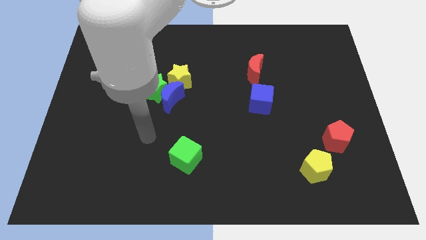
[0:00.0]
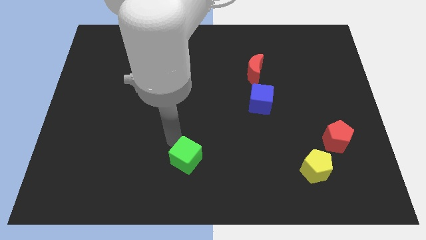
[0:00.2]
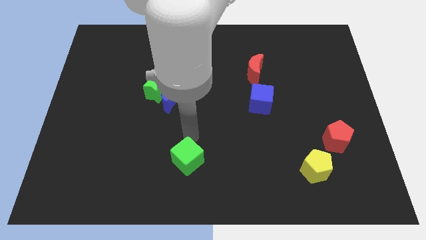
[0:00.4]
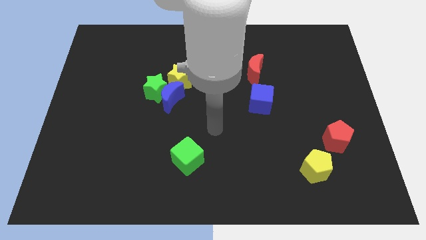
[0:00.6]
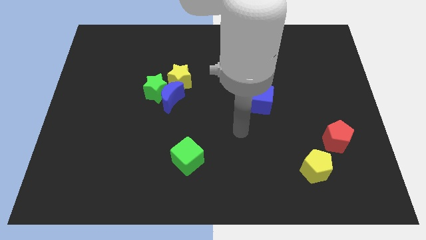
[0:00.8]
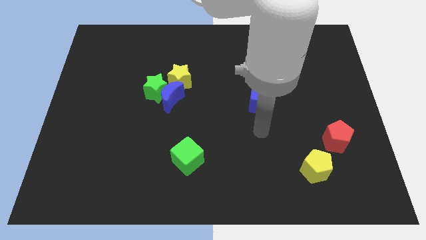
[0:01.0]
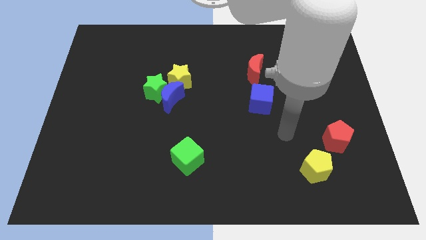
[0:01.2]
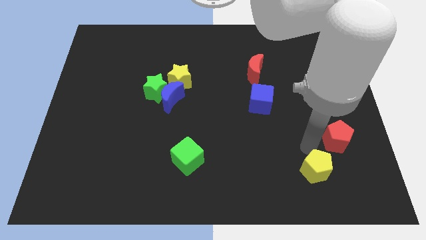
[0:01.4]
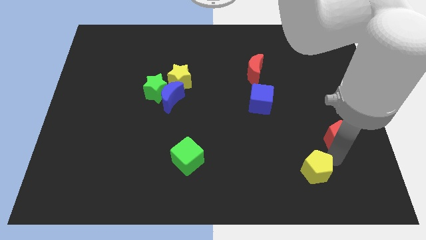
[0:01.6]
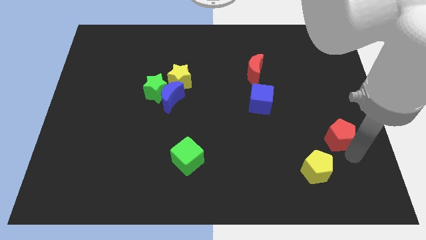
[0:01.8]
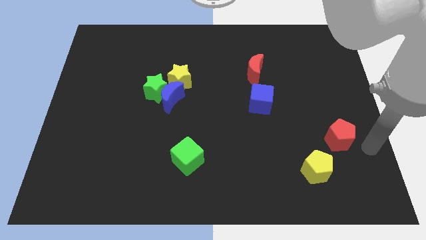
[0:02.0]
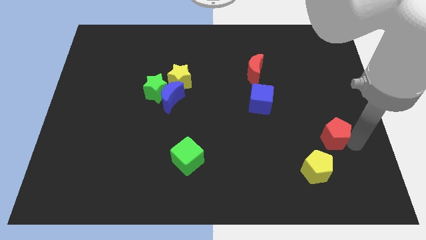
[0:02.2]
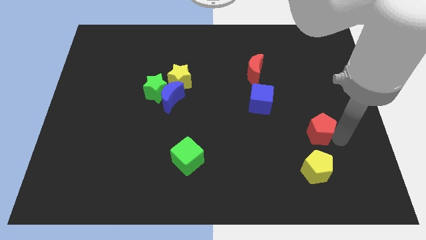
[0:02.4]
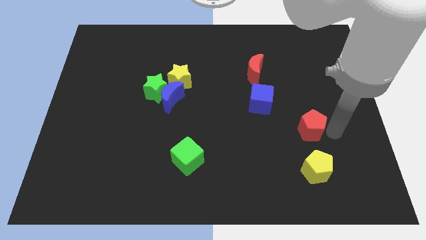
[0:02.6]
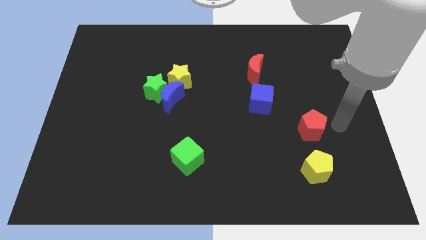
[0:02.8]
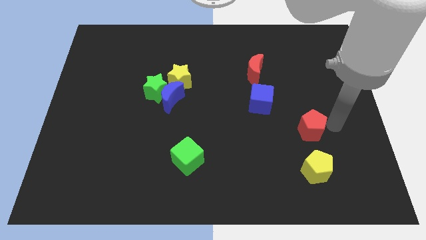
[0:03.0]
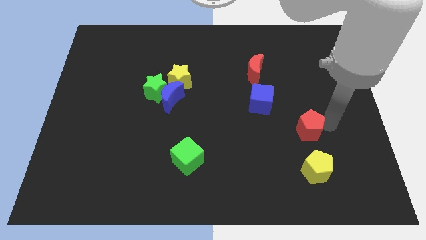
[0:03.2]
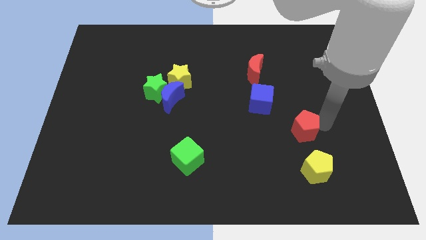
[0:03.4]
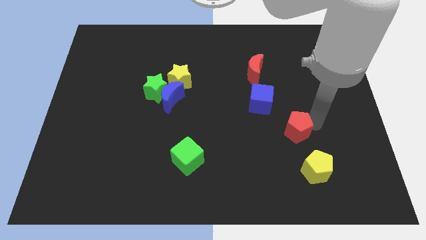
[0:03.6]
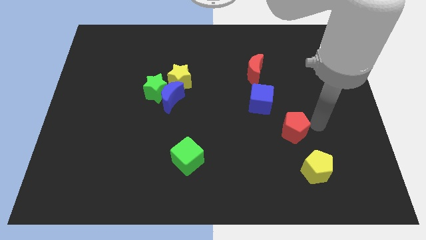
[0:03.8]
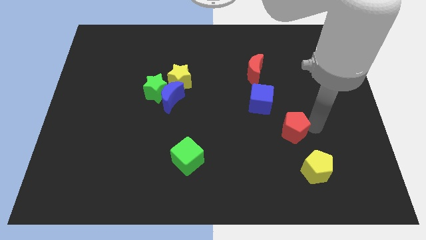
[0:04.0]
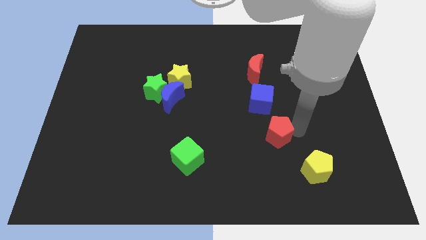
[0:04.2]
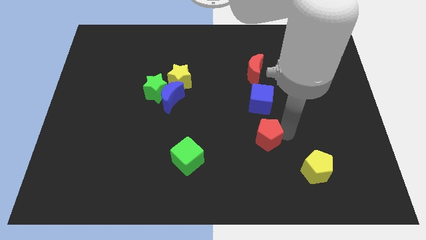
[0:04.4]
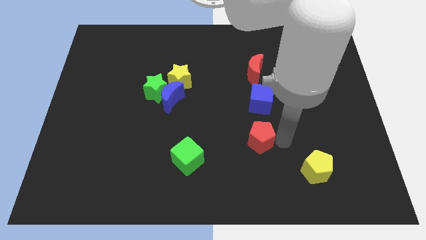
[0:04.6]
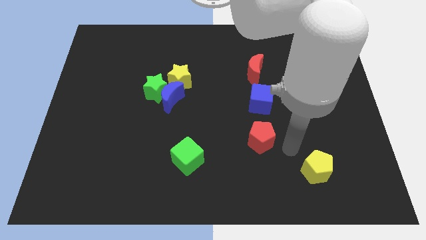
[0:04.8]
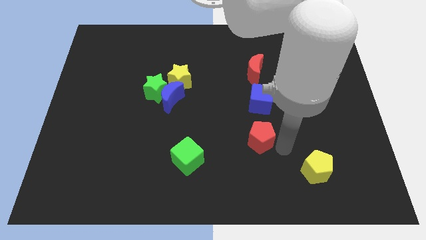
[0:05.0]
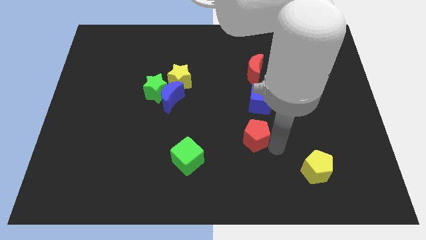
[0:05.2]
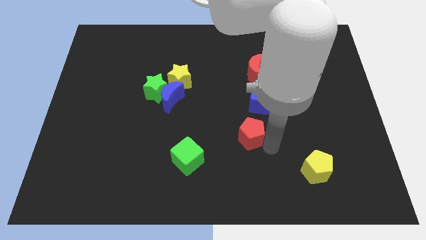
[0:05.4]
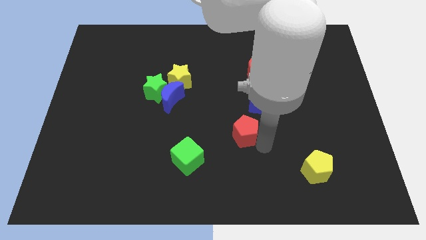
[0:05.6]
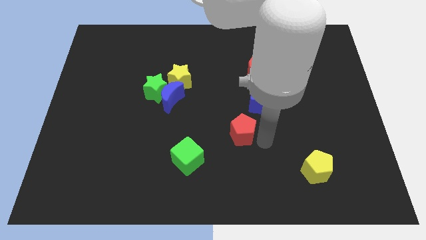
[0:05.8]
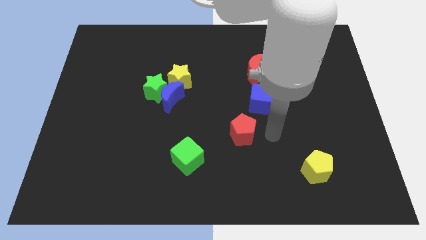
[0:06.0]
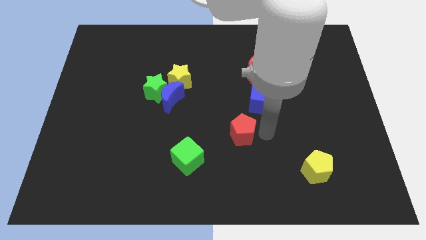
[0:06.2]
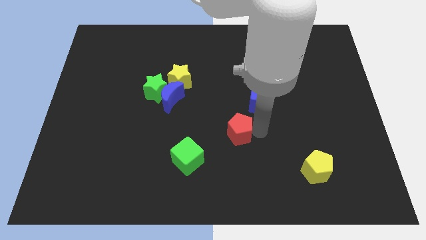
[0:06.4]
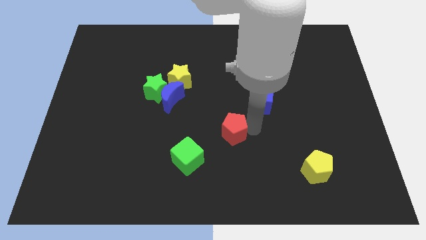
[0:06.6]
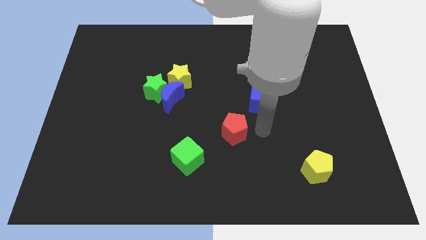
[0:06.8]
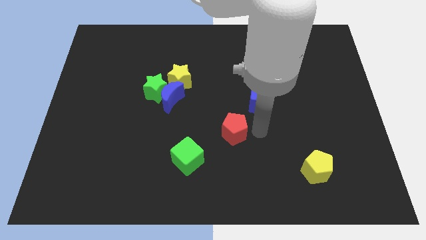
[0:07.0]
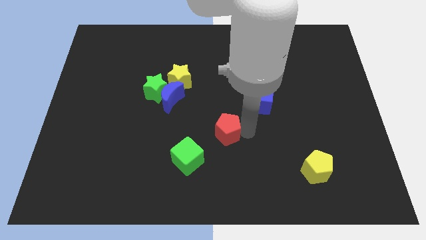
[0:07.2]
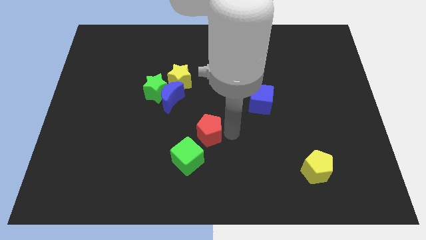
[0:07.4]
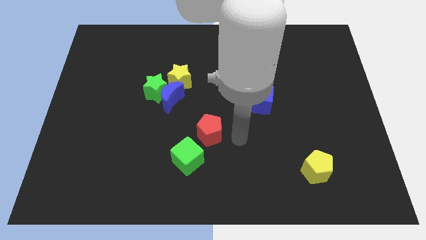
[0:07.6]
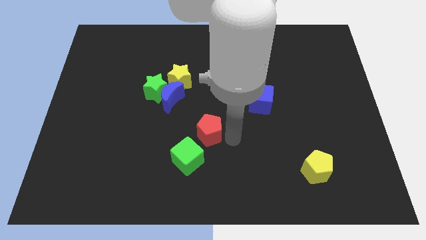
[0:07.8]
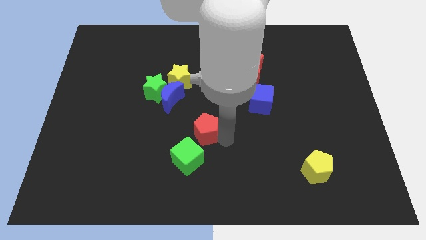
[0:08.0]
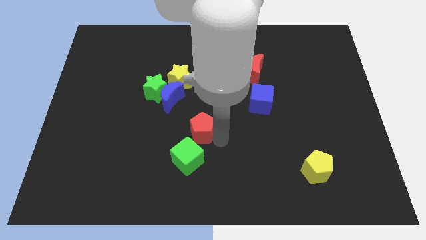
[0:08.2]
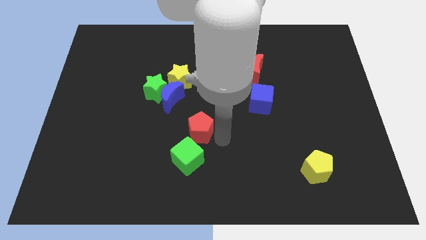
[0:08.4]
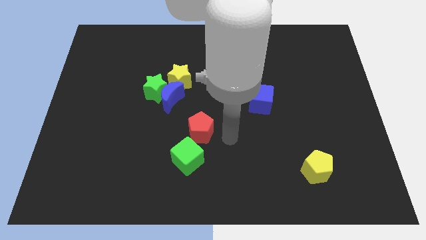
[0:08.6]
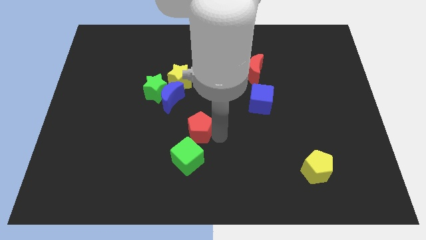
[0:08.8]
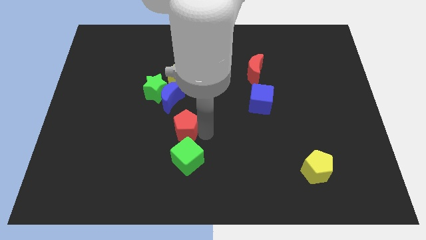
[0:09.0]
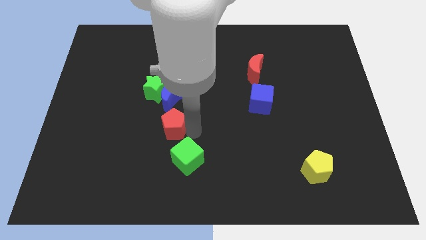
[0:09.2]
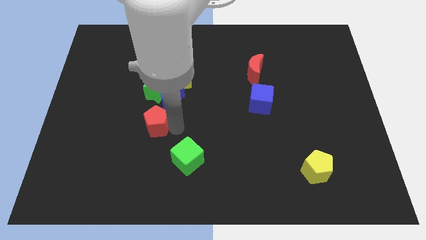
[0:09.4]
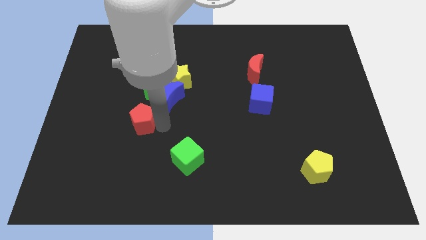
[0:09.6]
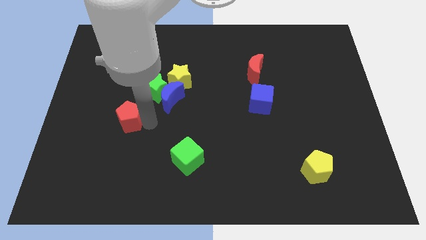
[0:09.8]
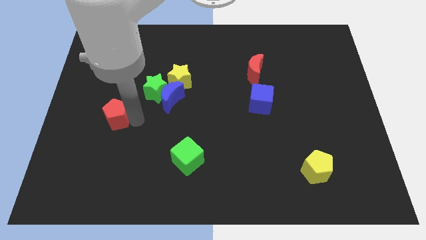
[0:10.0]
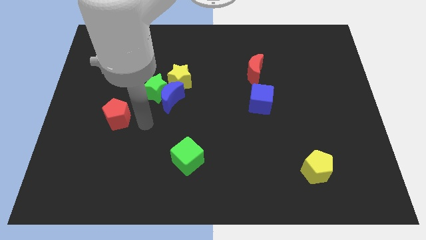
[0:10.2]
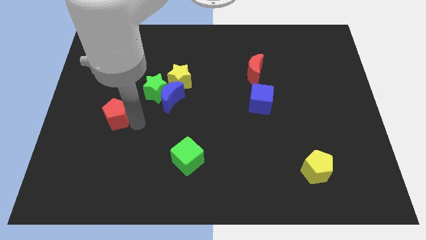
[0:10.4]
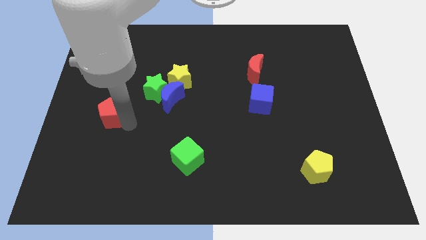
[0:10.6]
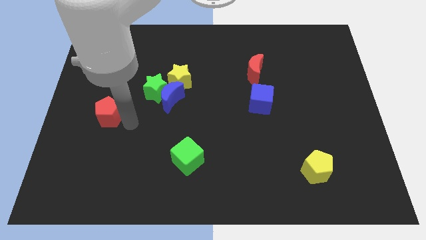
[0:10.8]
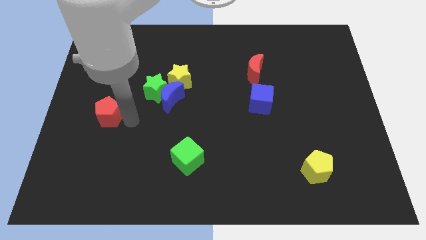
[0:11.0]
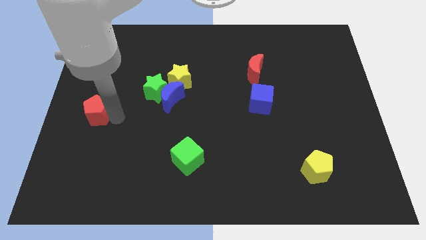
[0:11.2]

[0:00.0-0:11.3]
push the red pentagon to the center left

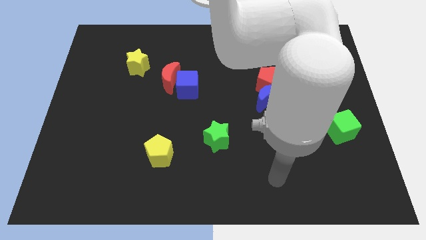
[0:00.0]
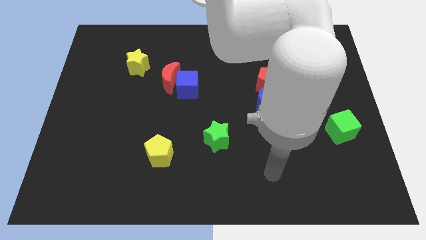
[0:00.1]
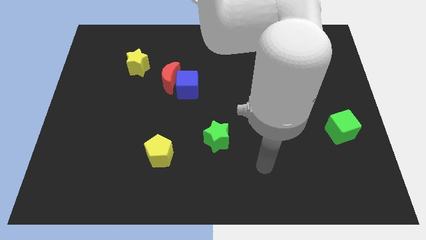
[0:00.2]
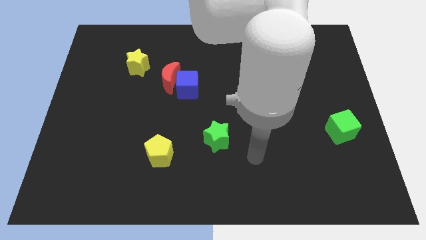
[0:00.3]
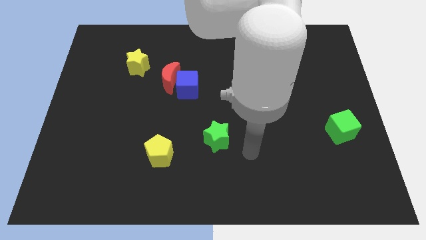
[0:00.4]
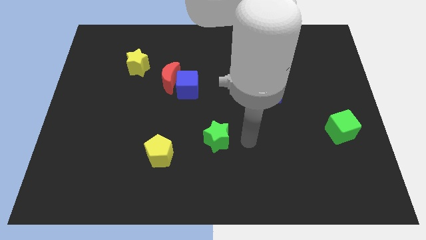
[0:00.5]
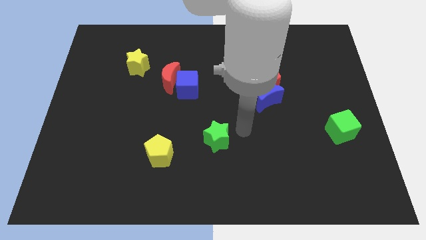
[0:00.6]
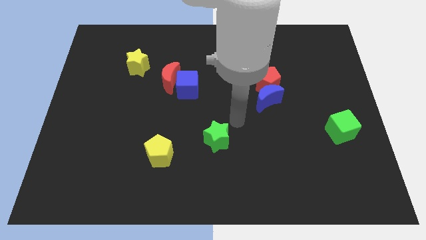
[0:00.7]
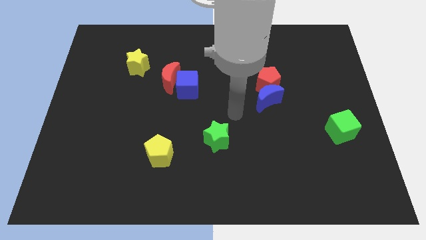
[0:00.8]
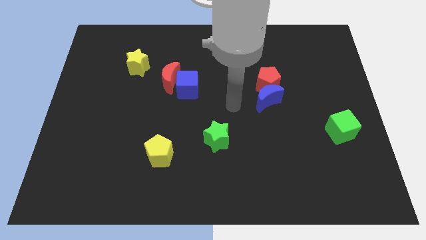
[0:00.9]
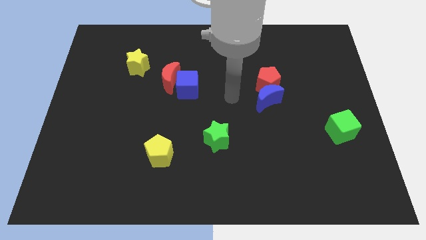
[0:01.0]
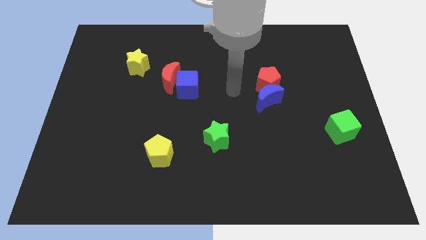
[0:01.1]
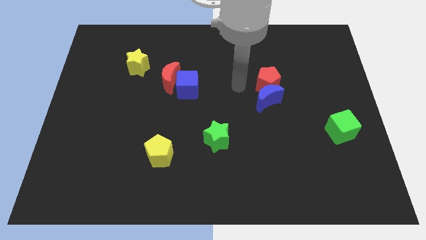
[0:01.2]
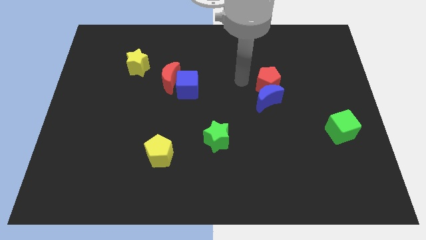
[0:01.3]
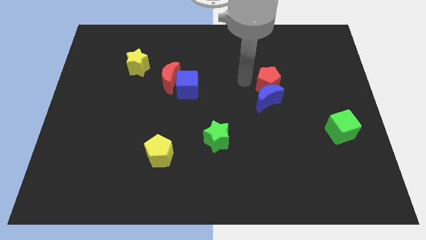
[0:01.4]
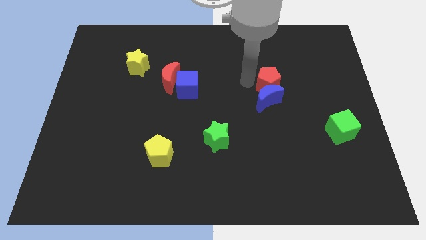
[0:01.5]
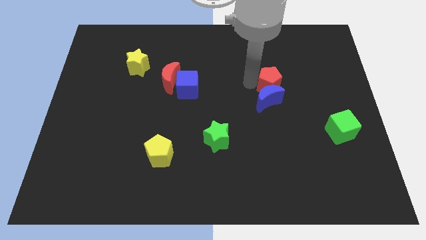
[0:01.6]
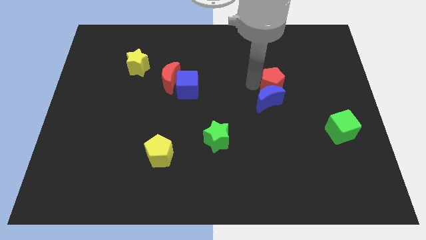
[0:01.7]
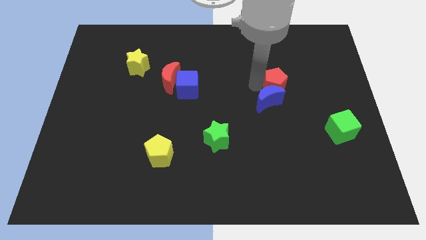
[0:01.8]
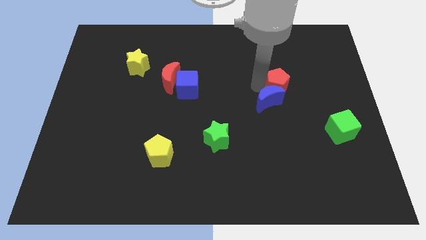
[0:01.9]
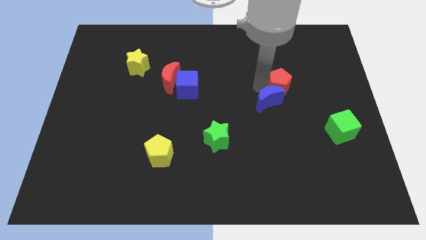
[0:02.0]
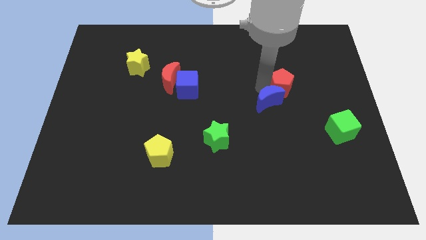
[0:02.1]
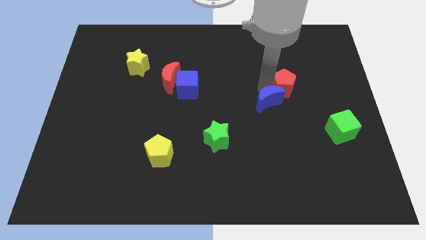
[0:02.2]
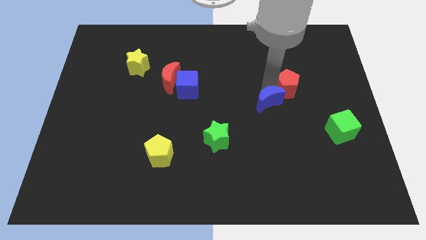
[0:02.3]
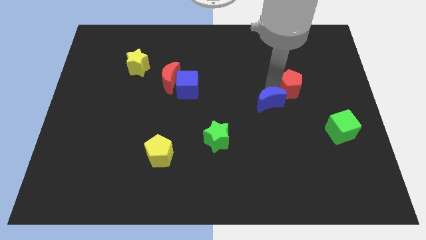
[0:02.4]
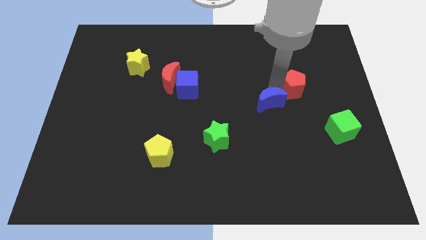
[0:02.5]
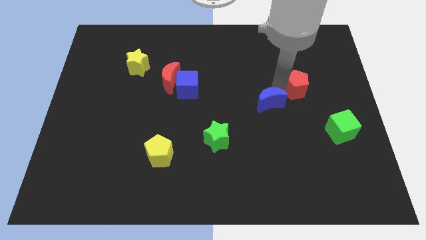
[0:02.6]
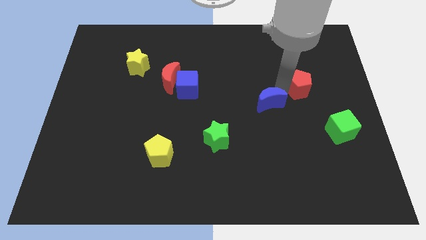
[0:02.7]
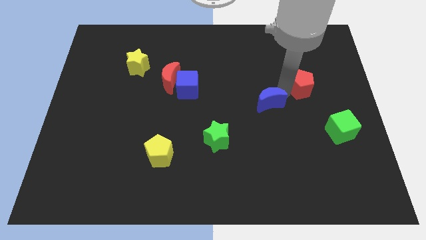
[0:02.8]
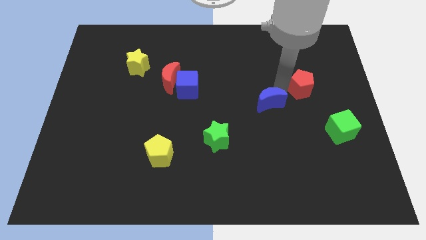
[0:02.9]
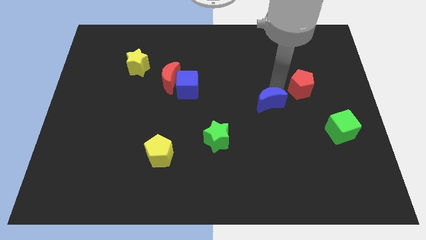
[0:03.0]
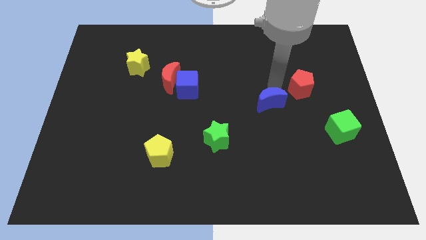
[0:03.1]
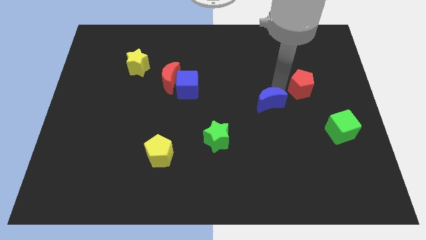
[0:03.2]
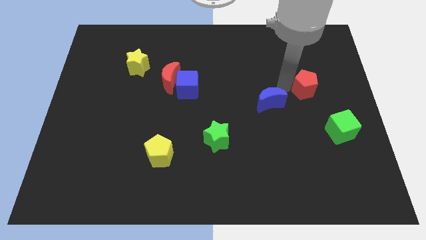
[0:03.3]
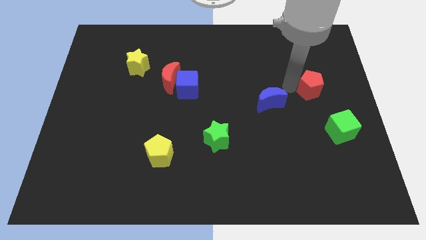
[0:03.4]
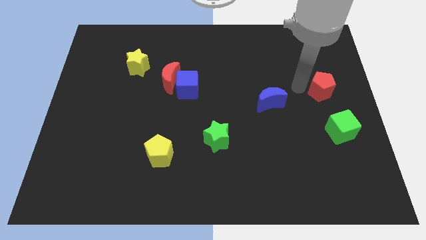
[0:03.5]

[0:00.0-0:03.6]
move the red pentagon to the right side
